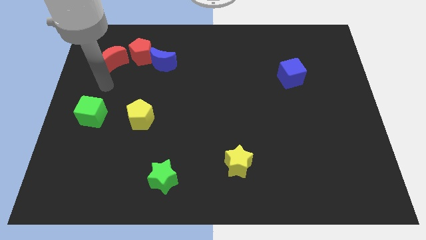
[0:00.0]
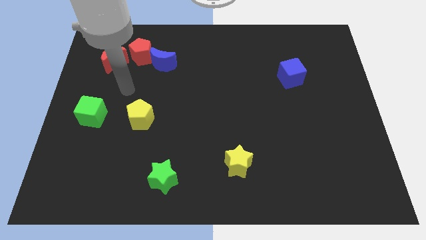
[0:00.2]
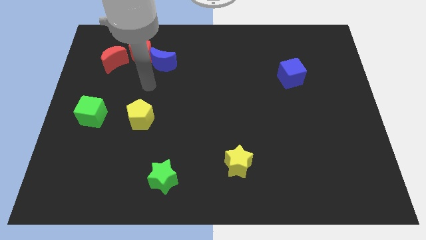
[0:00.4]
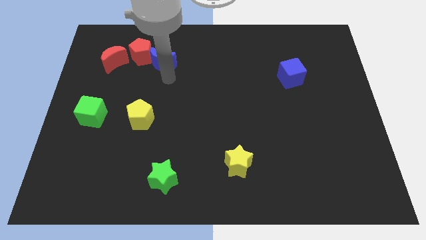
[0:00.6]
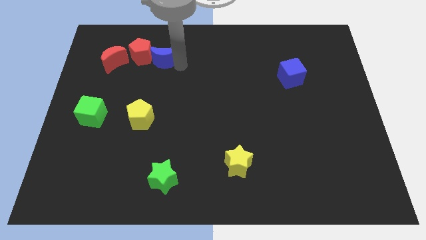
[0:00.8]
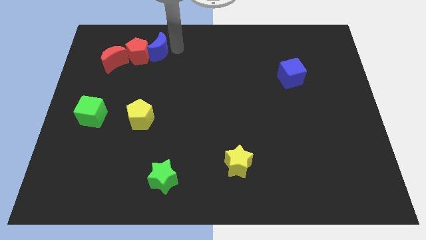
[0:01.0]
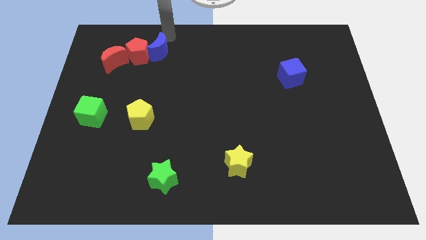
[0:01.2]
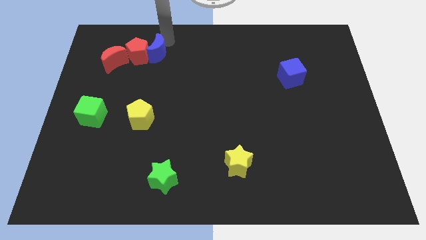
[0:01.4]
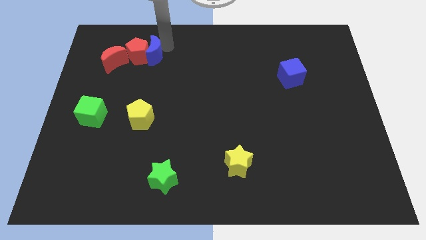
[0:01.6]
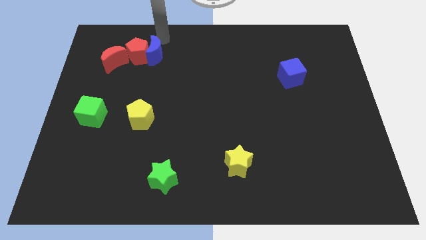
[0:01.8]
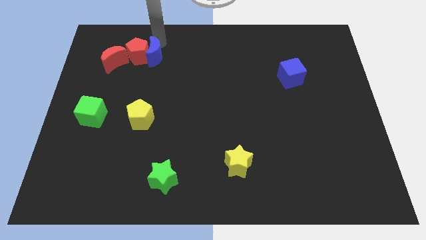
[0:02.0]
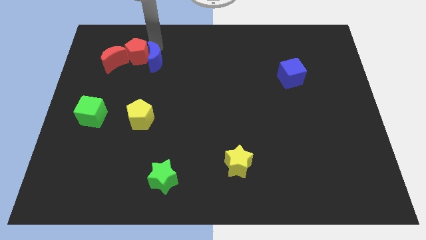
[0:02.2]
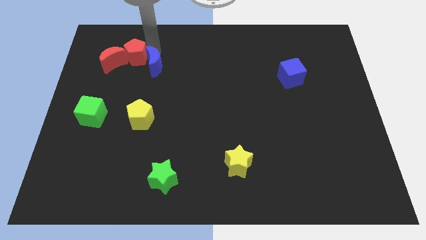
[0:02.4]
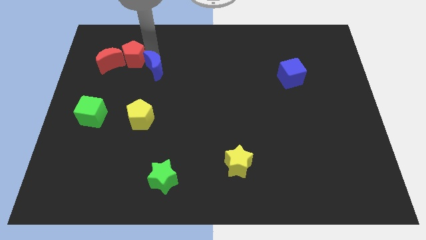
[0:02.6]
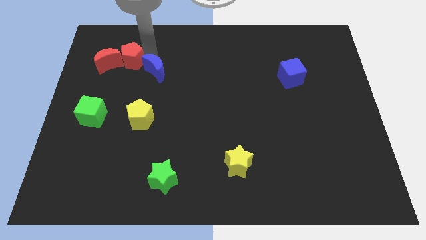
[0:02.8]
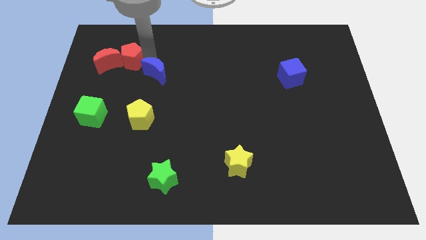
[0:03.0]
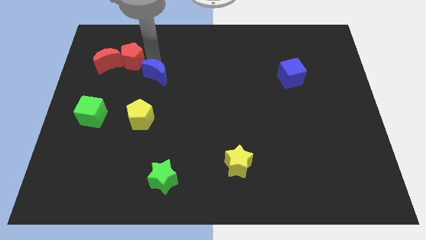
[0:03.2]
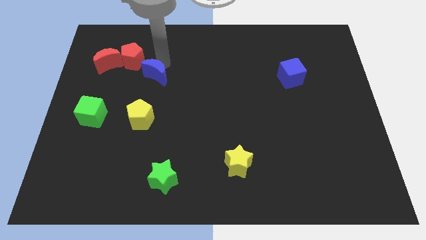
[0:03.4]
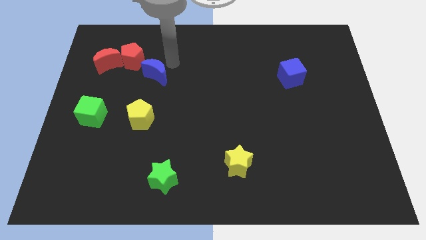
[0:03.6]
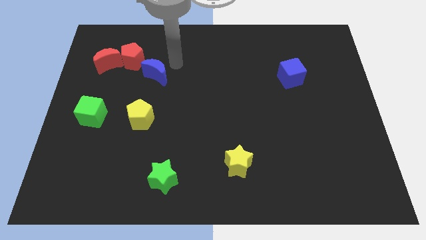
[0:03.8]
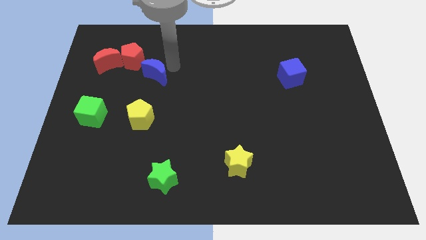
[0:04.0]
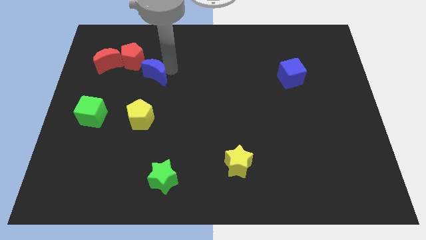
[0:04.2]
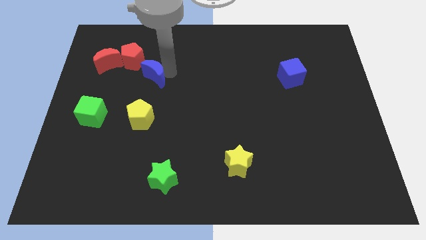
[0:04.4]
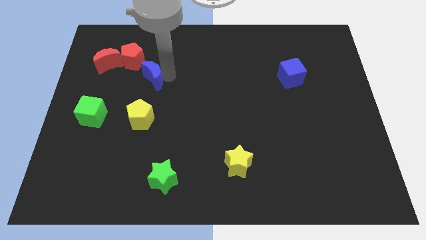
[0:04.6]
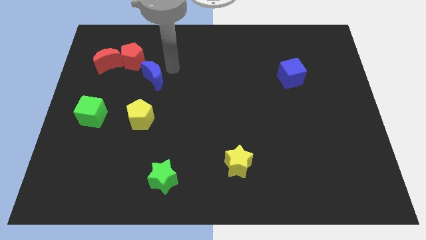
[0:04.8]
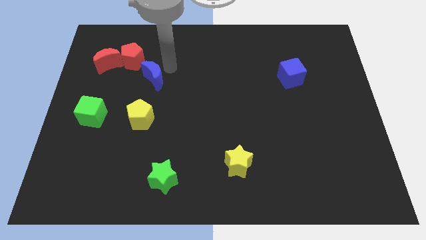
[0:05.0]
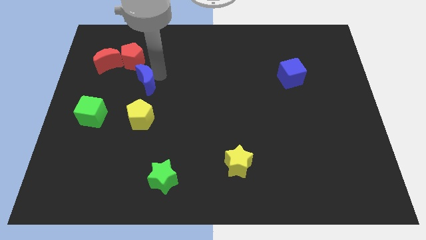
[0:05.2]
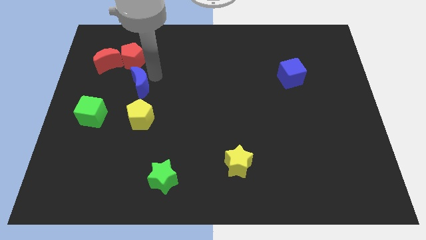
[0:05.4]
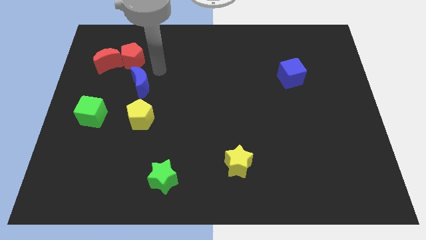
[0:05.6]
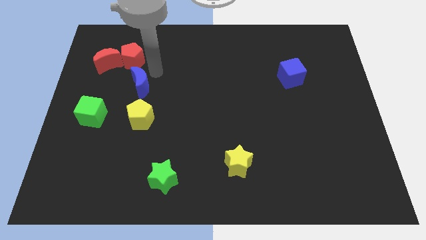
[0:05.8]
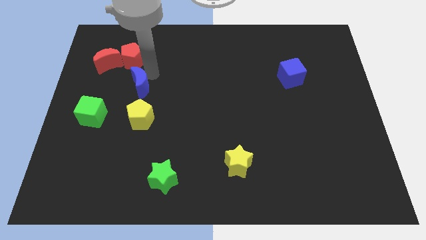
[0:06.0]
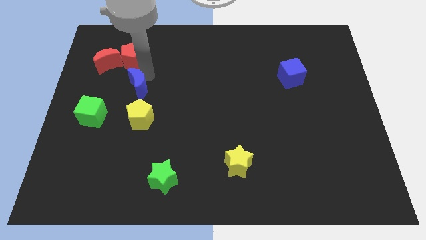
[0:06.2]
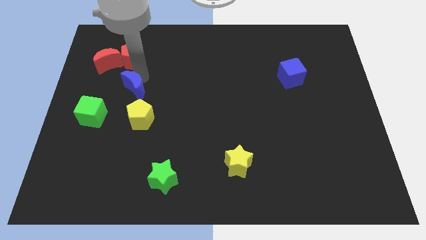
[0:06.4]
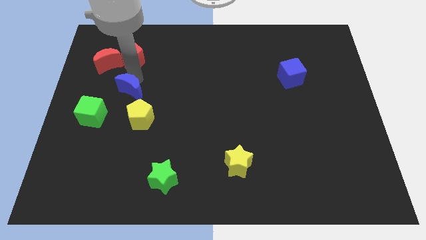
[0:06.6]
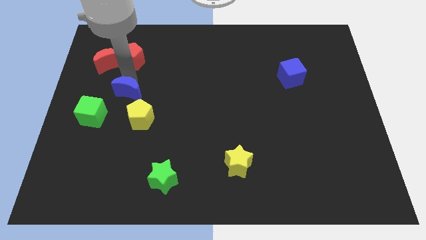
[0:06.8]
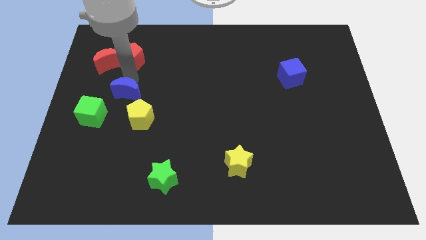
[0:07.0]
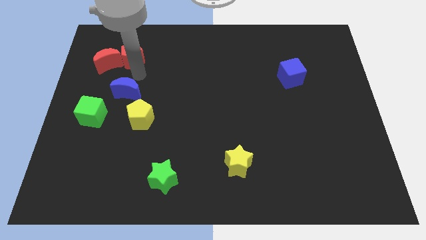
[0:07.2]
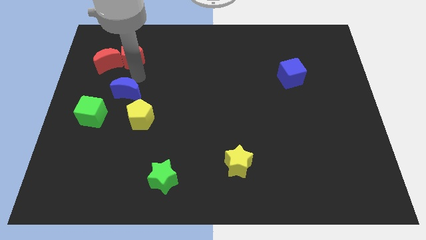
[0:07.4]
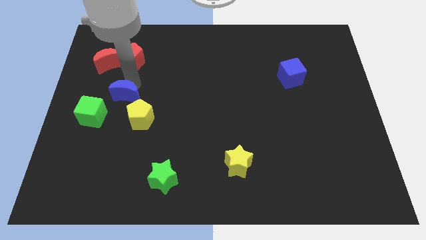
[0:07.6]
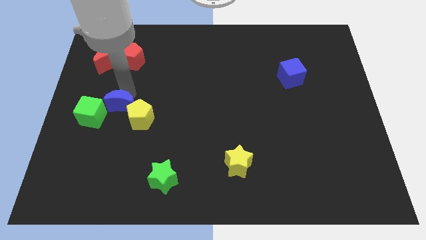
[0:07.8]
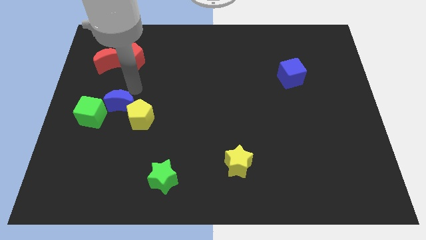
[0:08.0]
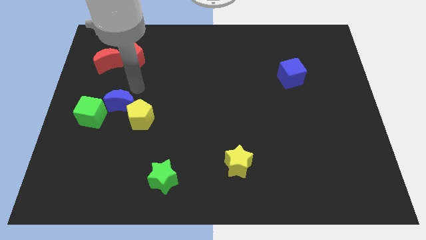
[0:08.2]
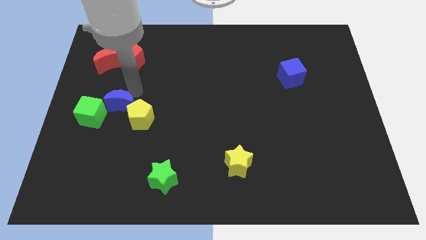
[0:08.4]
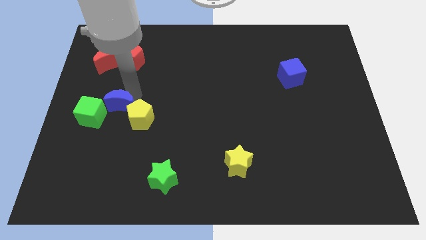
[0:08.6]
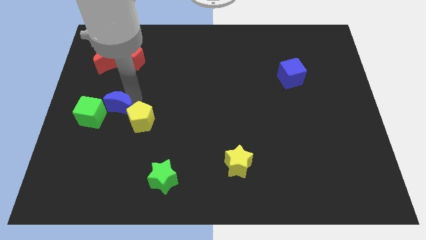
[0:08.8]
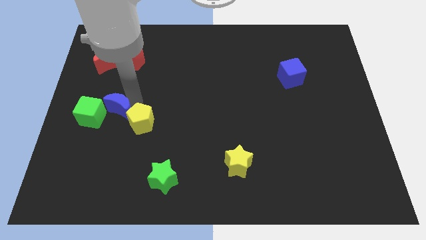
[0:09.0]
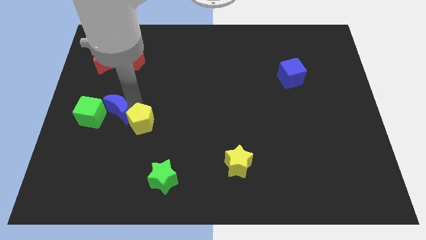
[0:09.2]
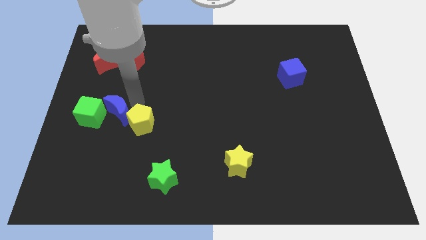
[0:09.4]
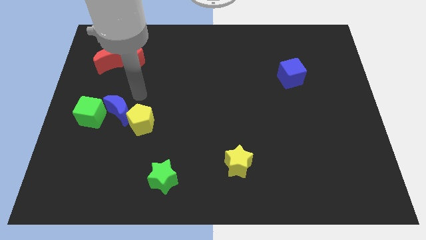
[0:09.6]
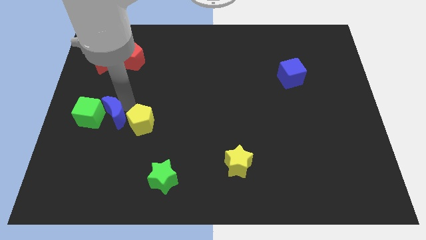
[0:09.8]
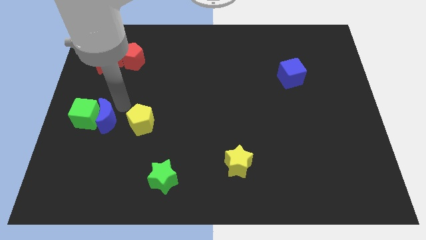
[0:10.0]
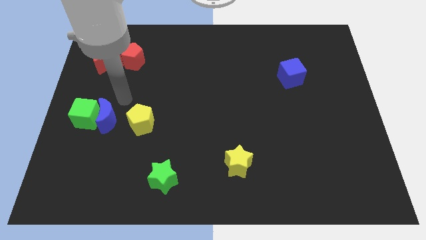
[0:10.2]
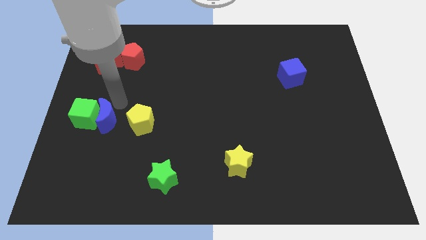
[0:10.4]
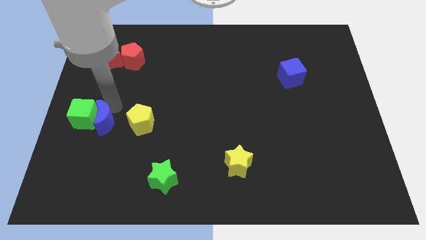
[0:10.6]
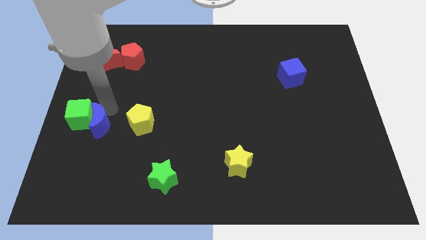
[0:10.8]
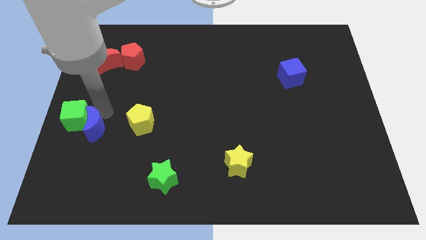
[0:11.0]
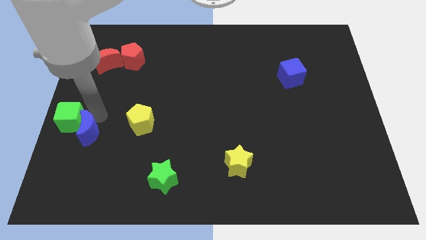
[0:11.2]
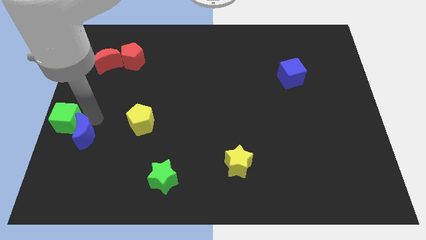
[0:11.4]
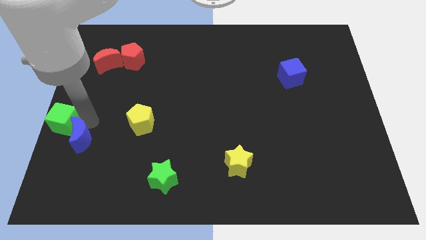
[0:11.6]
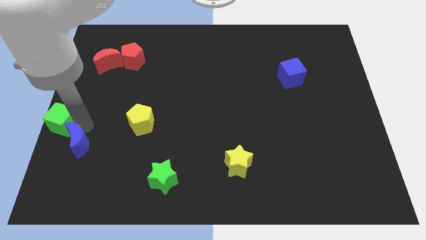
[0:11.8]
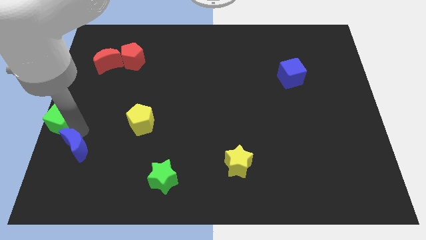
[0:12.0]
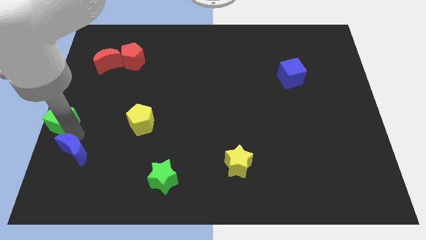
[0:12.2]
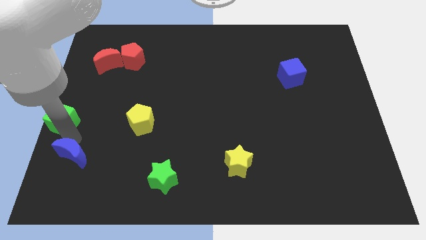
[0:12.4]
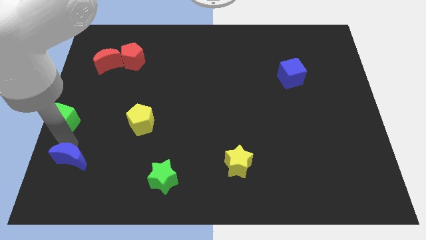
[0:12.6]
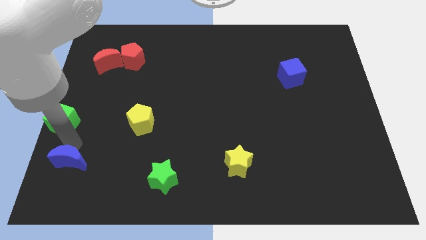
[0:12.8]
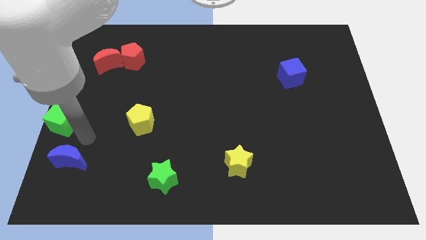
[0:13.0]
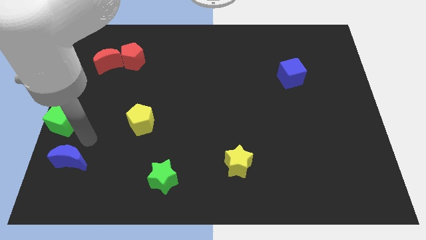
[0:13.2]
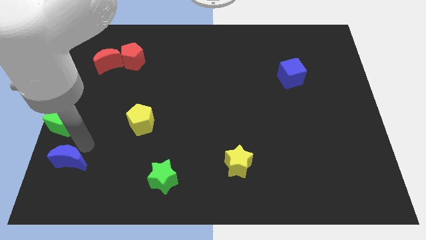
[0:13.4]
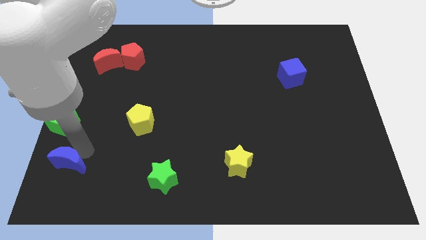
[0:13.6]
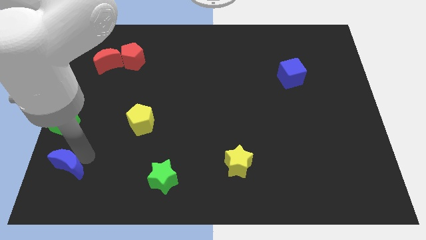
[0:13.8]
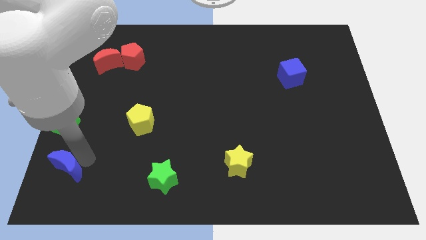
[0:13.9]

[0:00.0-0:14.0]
put the blue moon to the bottom left corner
